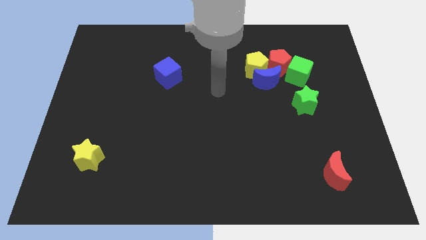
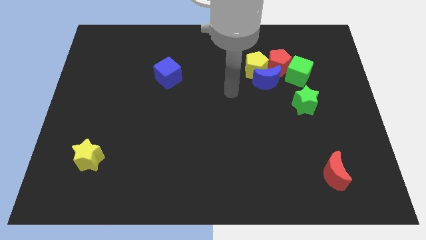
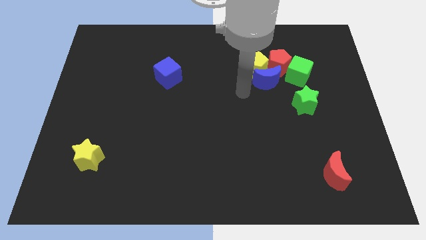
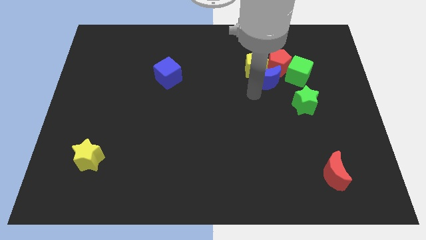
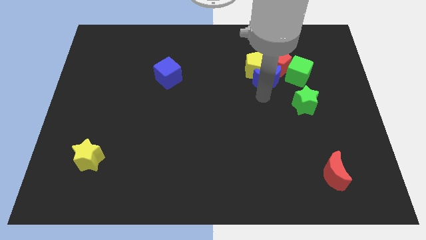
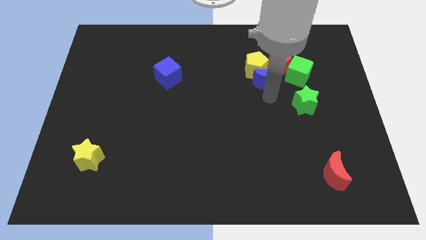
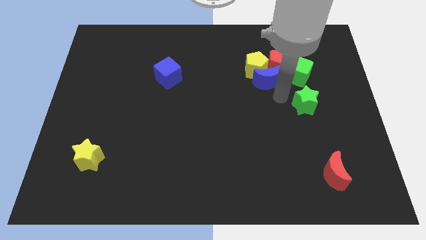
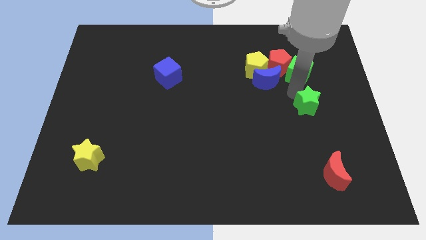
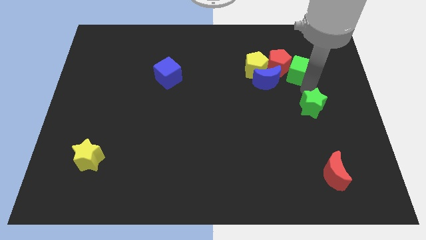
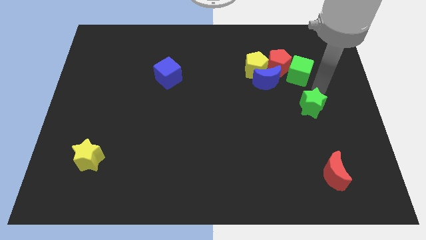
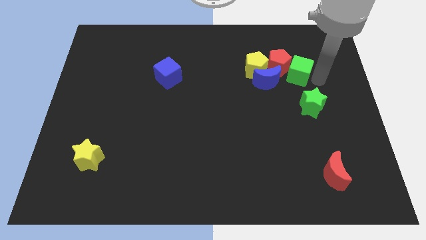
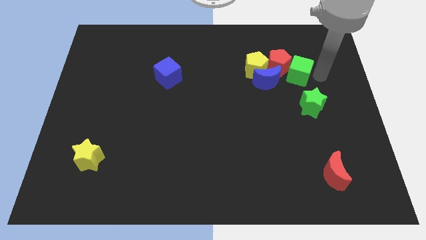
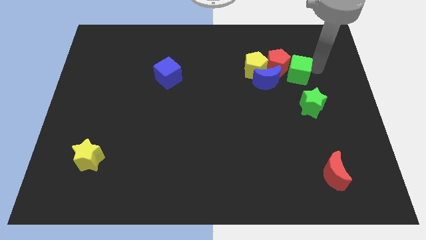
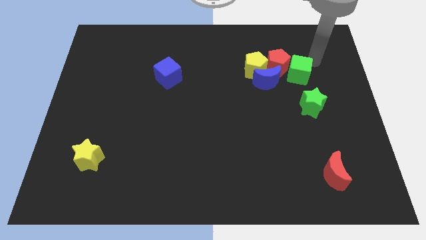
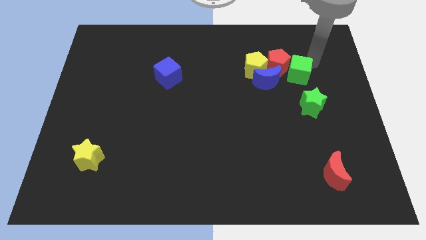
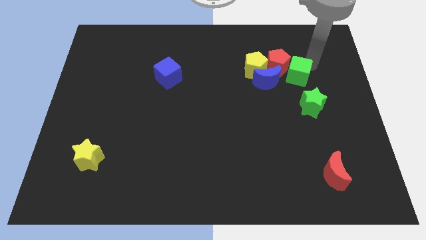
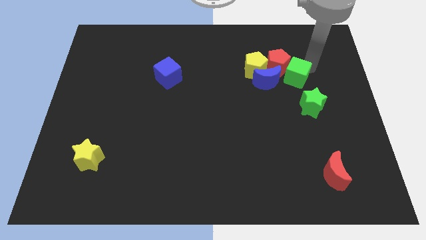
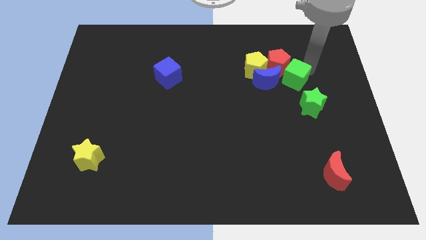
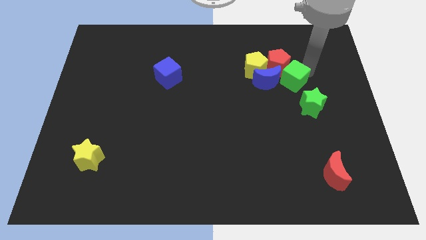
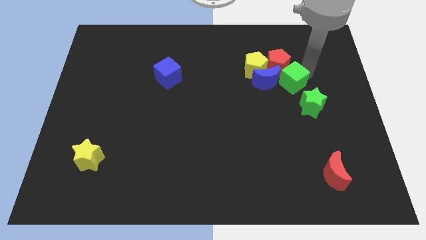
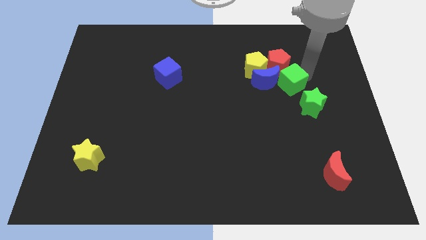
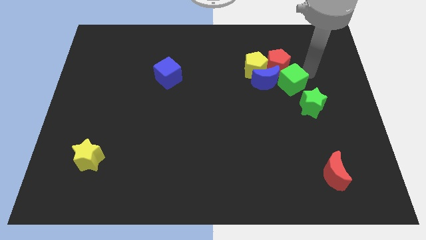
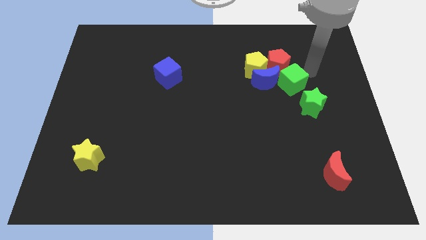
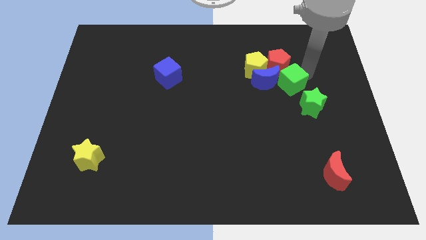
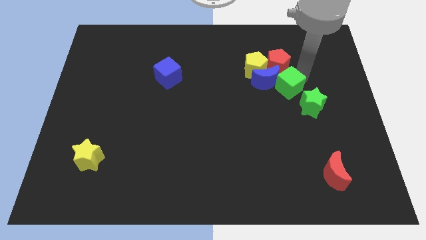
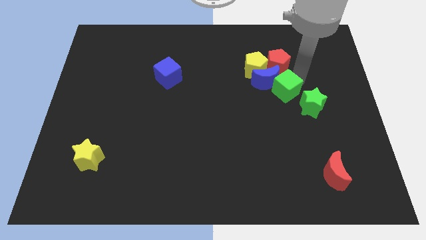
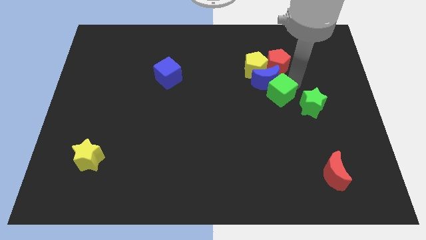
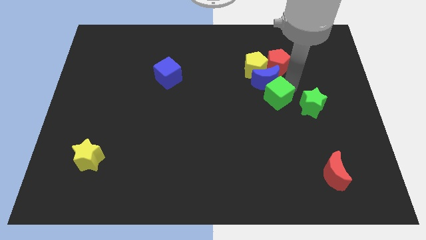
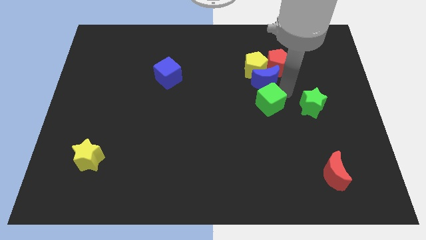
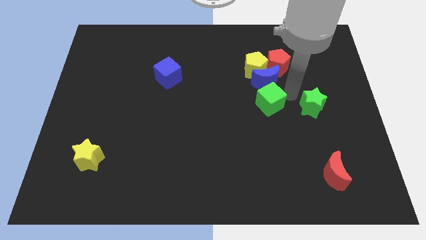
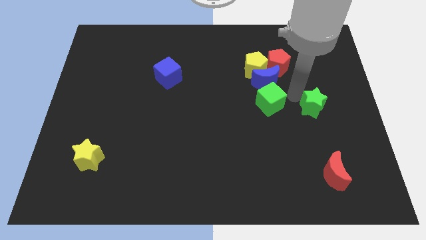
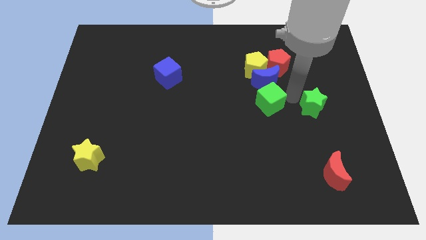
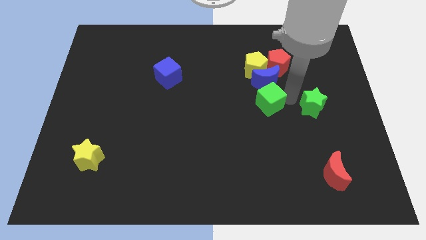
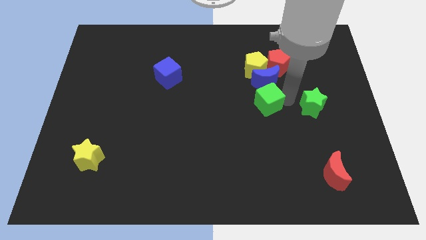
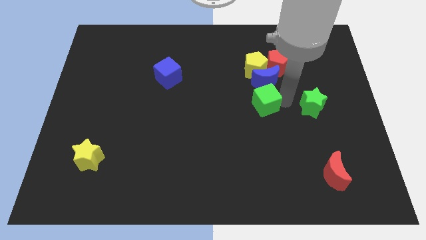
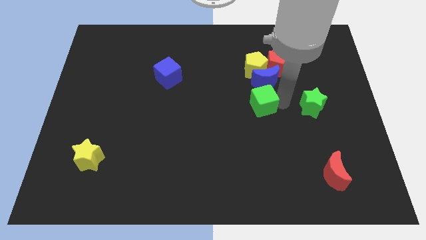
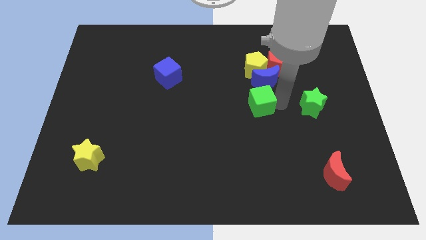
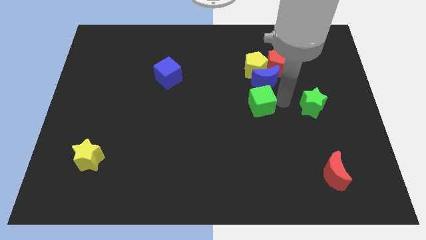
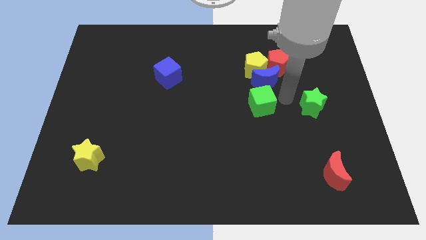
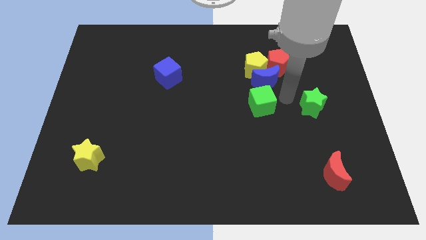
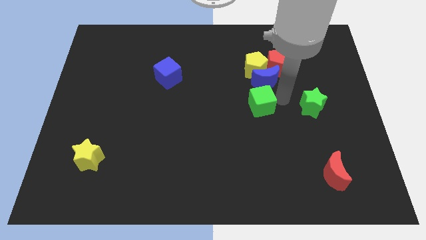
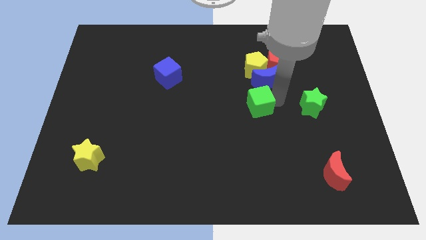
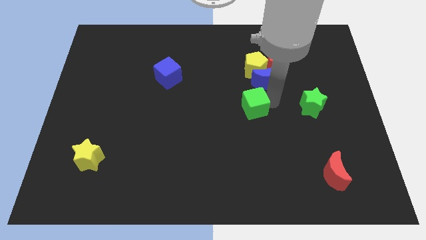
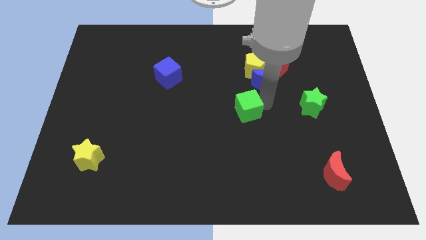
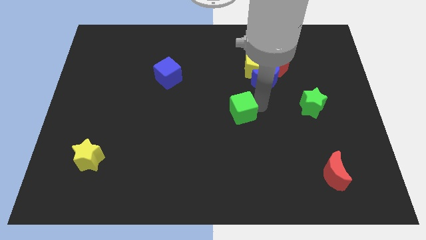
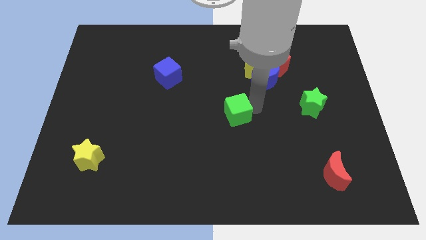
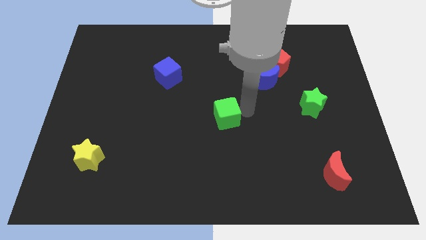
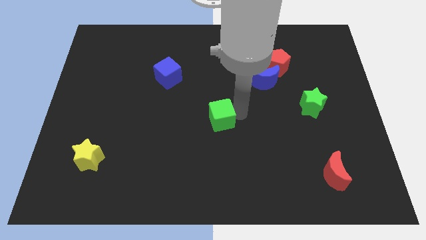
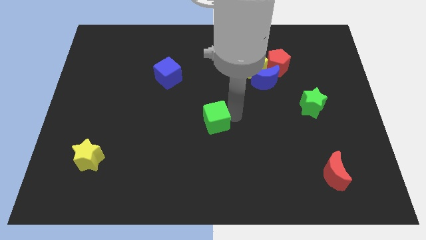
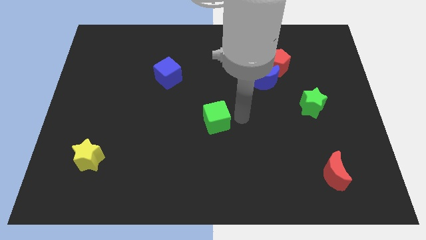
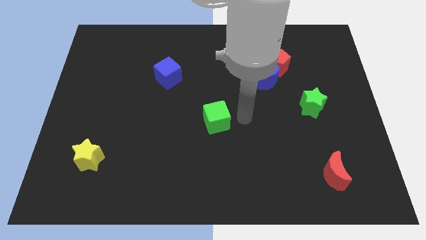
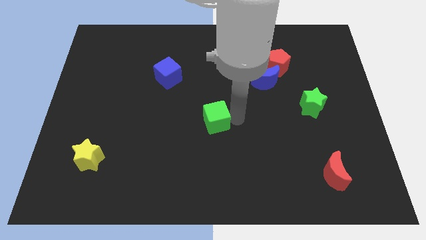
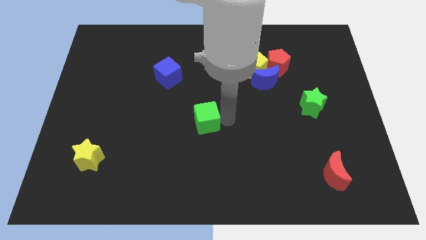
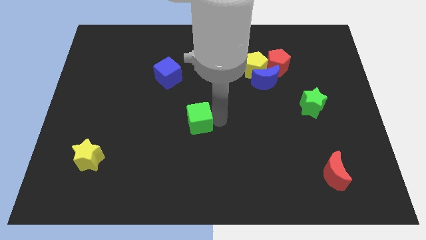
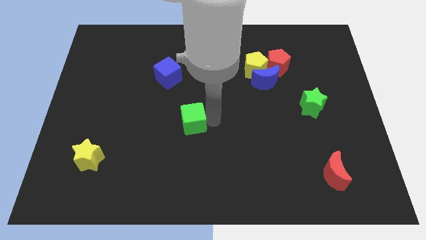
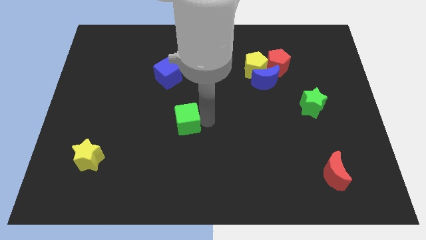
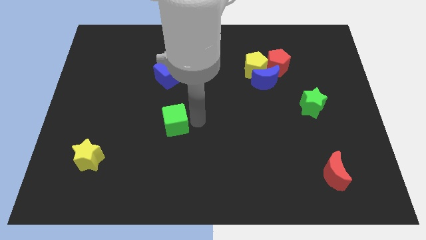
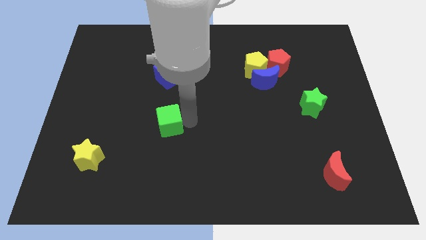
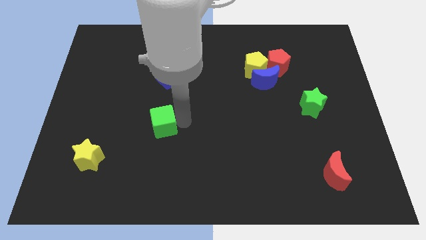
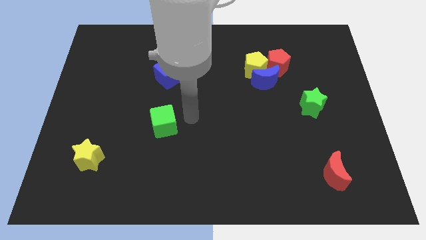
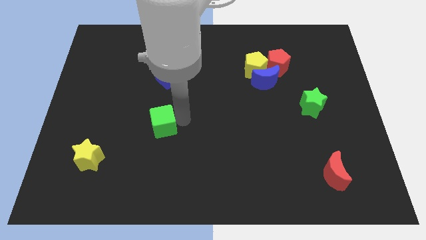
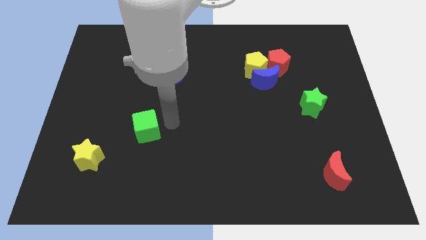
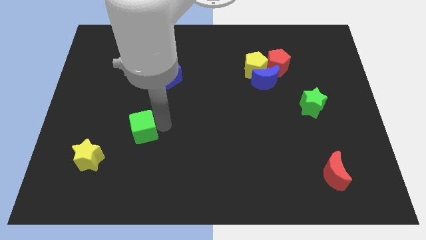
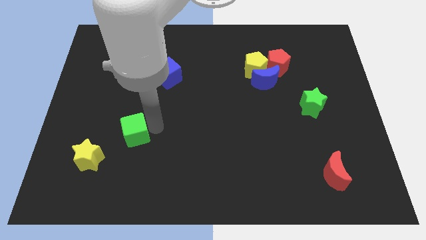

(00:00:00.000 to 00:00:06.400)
move the green cube diagonally up and to the right of the yellow star

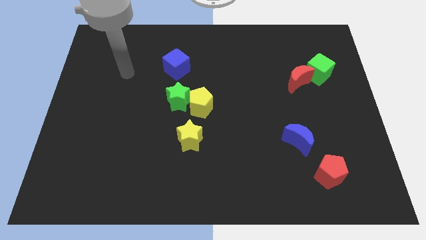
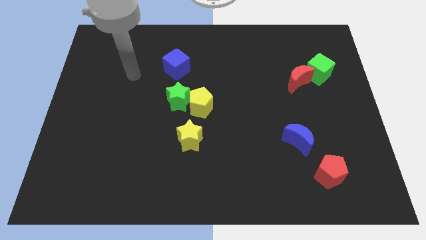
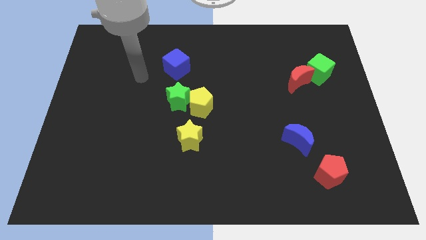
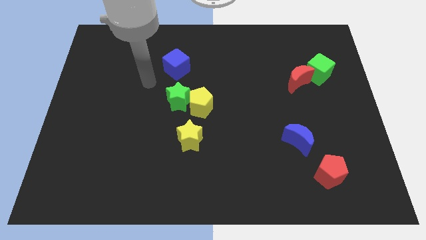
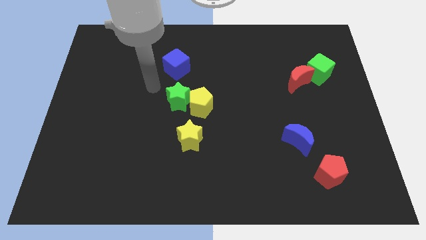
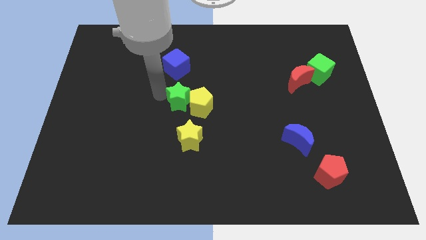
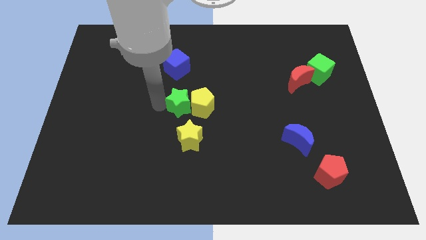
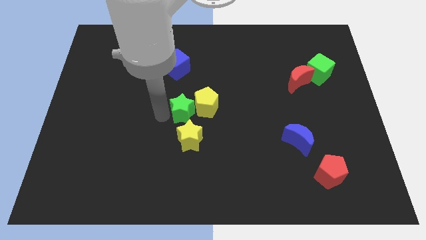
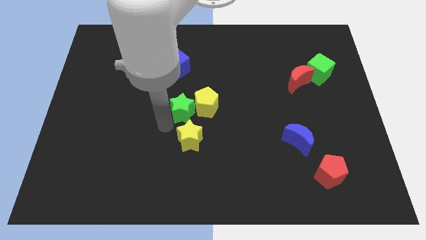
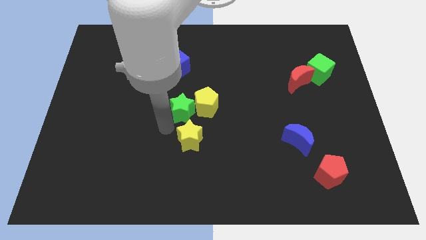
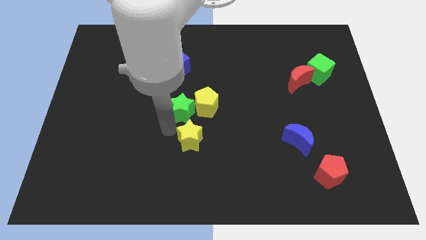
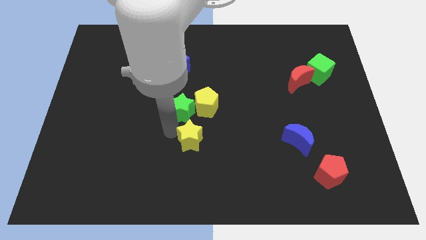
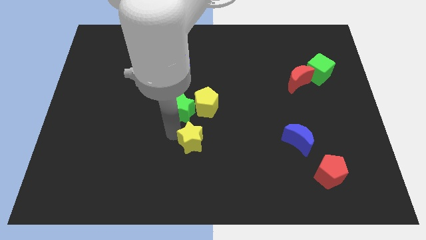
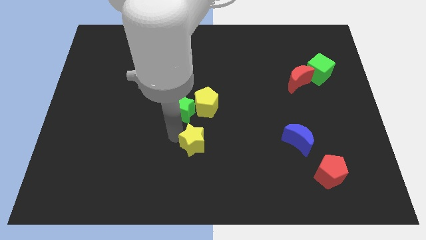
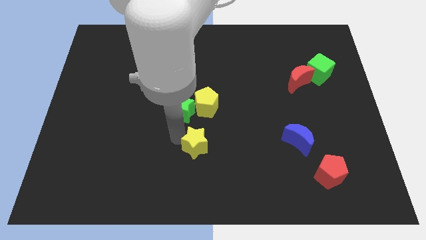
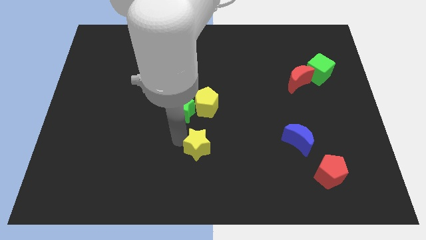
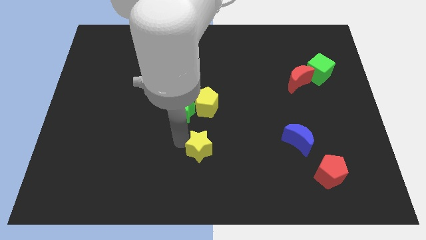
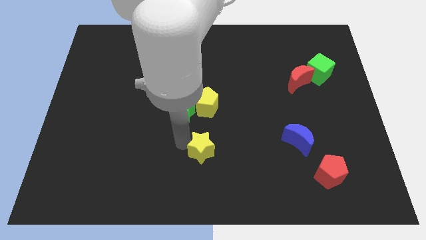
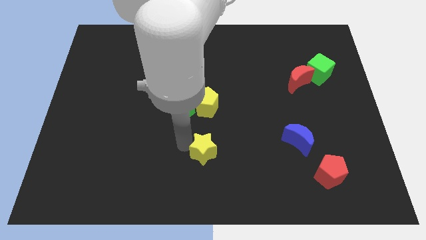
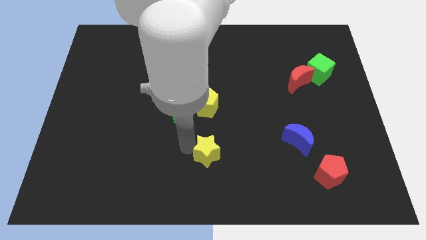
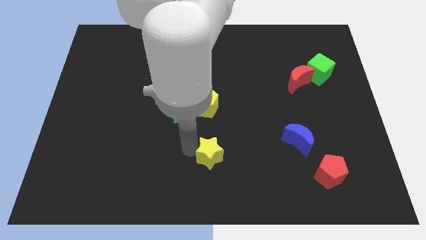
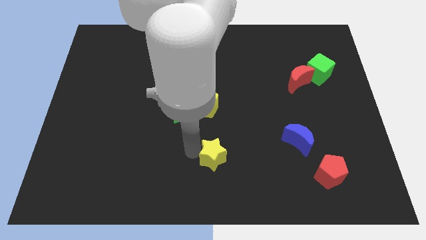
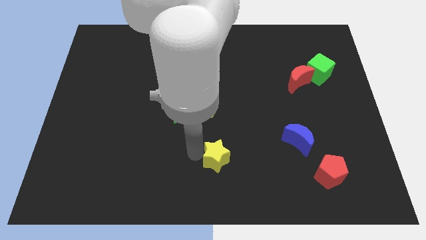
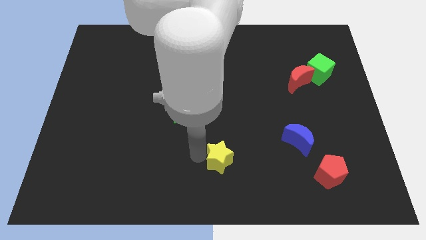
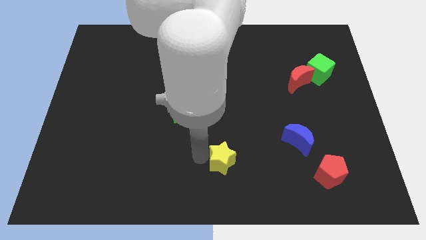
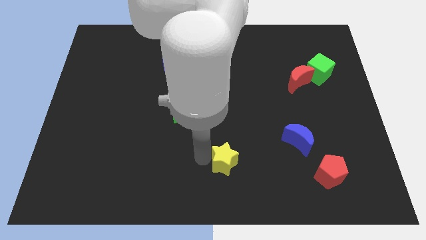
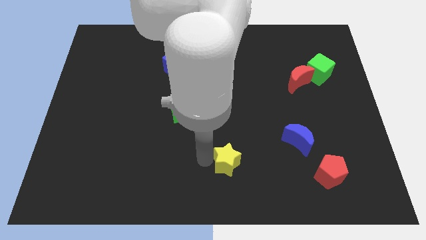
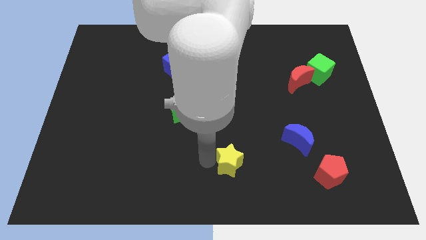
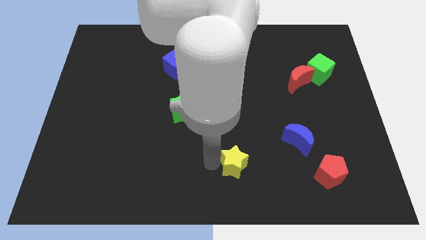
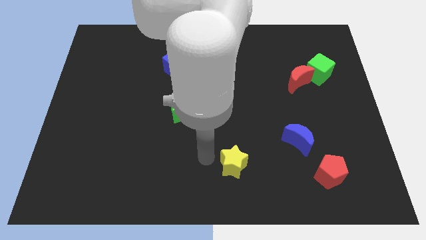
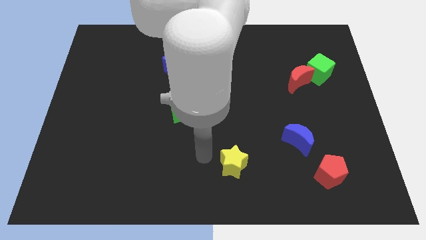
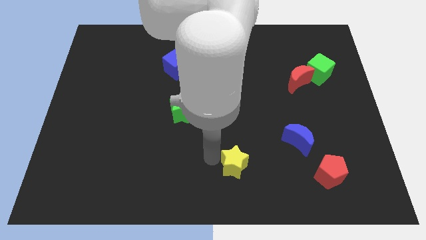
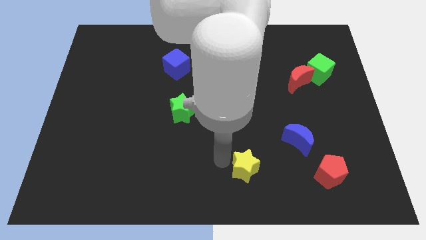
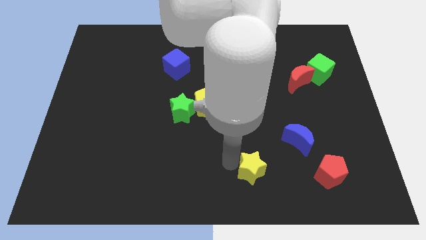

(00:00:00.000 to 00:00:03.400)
slide the yellow star to the left of the red pentagon
